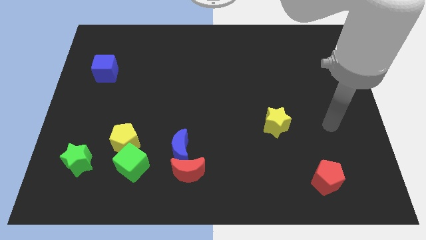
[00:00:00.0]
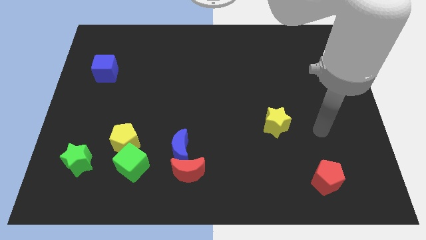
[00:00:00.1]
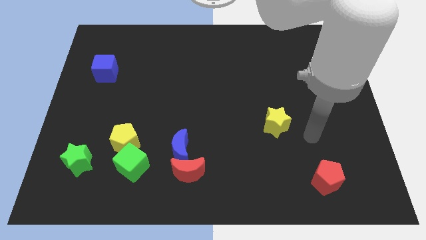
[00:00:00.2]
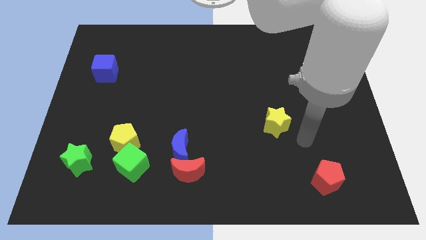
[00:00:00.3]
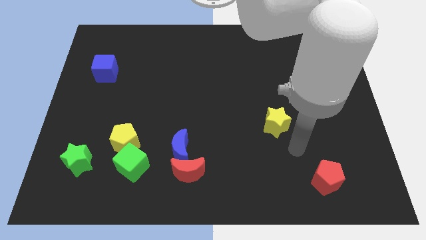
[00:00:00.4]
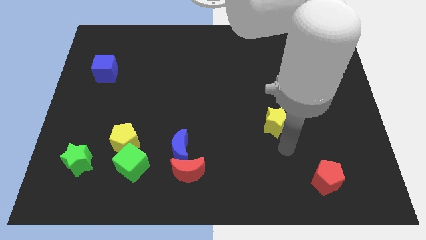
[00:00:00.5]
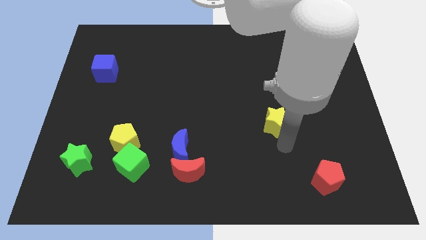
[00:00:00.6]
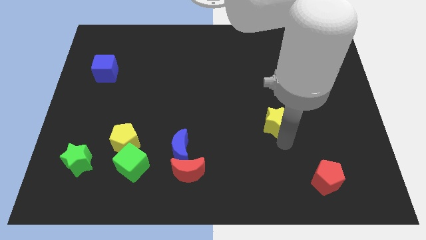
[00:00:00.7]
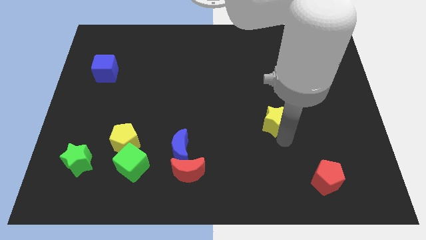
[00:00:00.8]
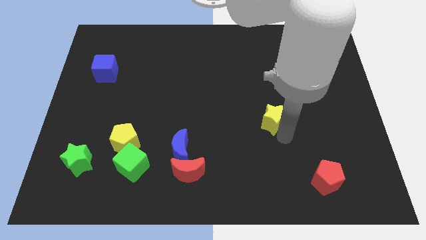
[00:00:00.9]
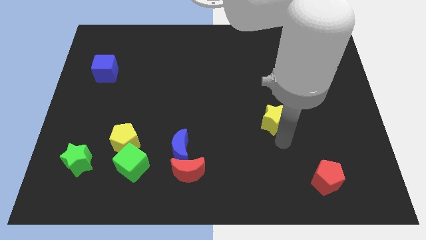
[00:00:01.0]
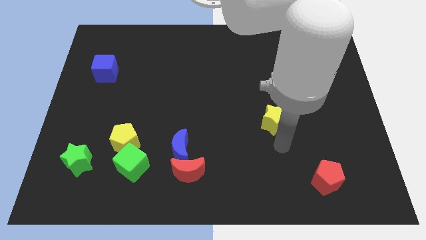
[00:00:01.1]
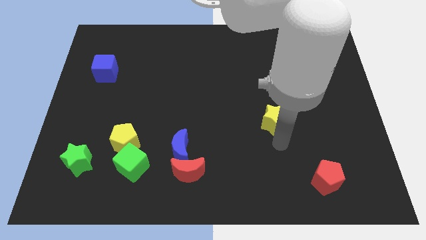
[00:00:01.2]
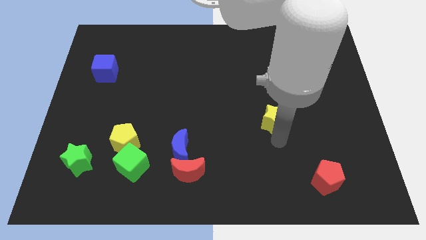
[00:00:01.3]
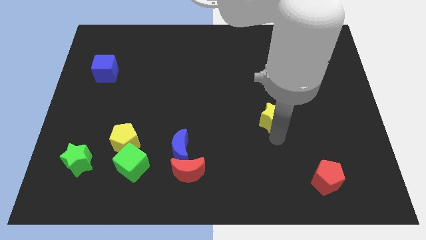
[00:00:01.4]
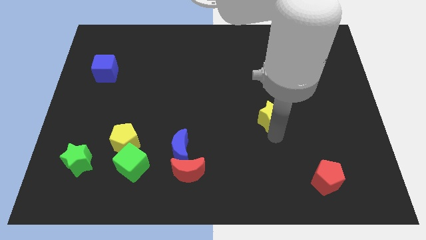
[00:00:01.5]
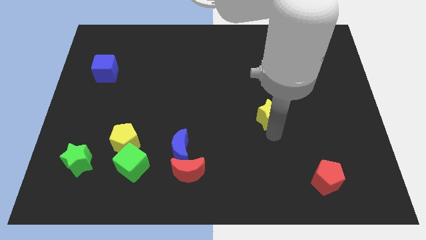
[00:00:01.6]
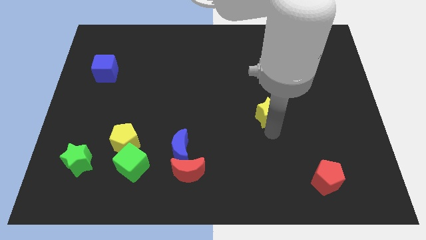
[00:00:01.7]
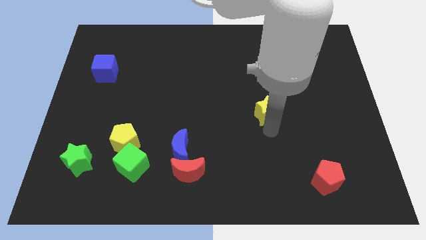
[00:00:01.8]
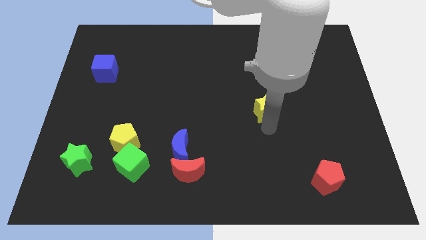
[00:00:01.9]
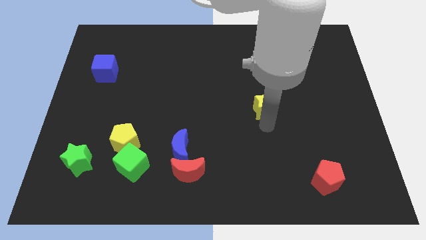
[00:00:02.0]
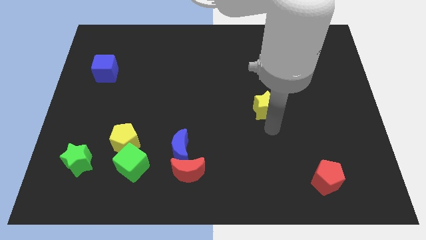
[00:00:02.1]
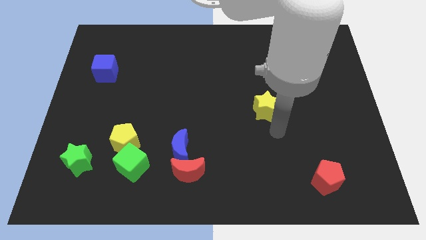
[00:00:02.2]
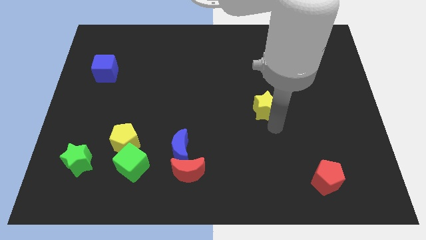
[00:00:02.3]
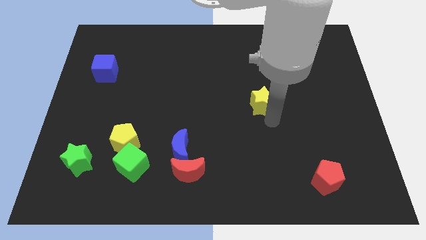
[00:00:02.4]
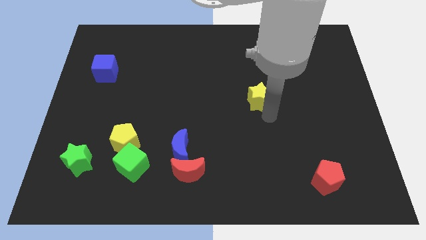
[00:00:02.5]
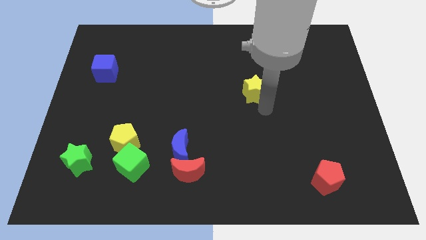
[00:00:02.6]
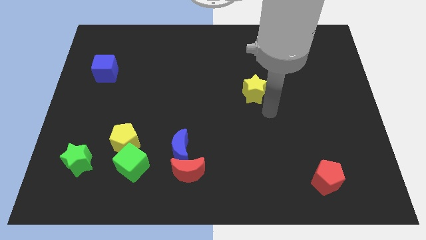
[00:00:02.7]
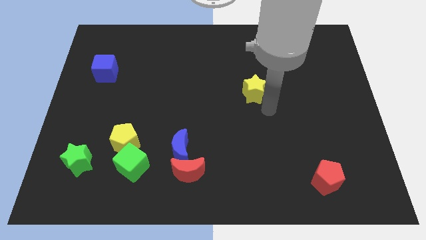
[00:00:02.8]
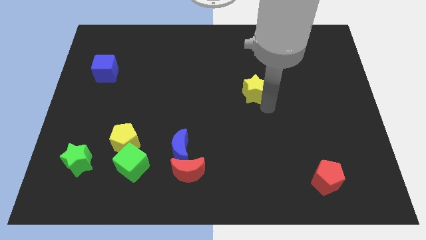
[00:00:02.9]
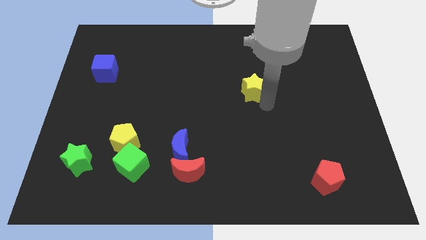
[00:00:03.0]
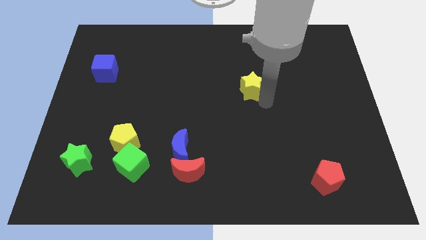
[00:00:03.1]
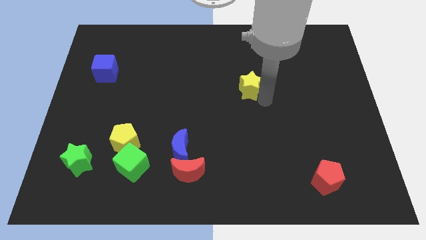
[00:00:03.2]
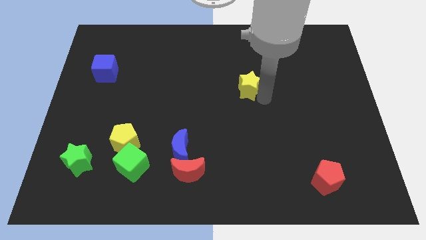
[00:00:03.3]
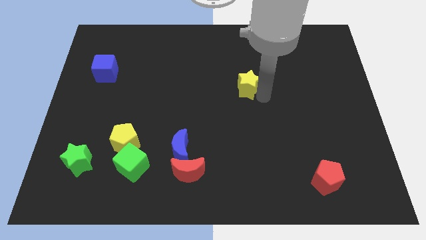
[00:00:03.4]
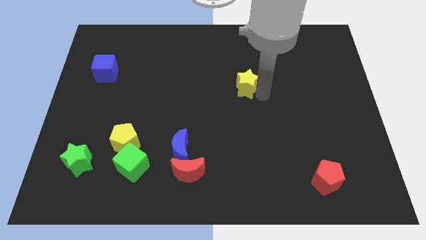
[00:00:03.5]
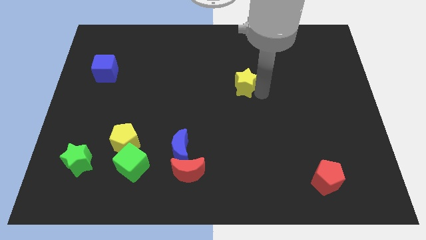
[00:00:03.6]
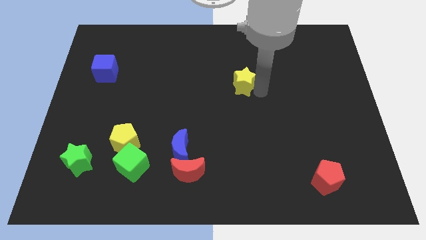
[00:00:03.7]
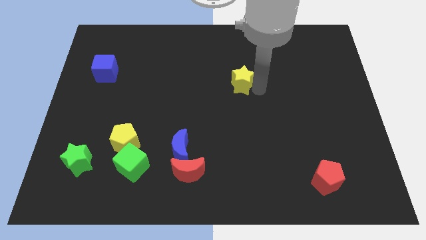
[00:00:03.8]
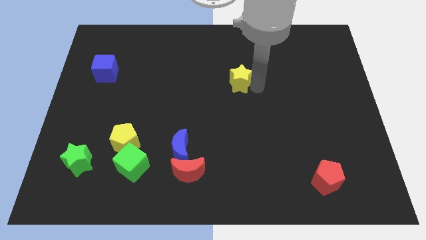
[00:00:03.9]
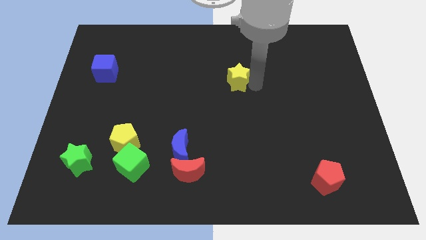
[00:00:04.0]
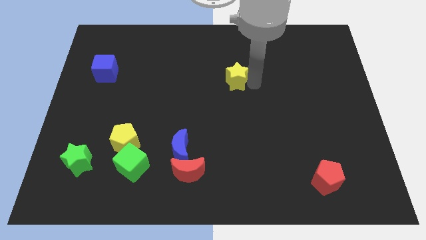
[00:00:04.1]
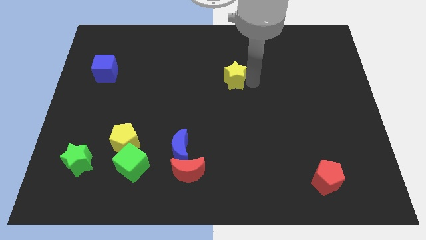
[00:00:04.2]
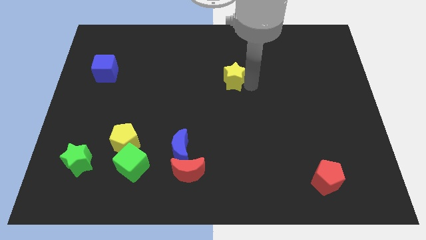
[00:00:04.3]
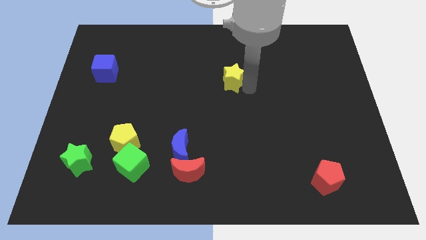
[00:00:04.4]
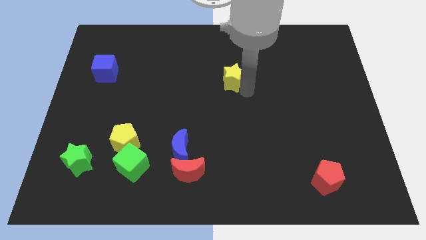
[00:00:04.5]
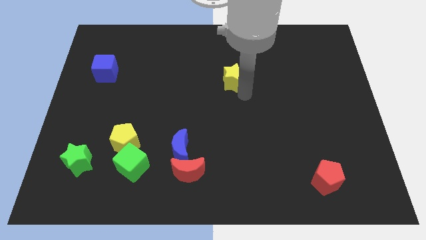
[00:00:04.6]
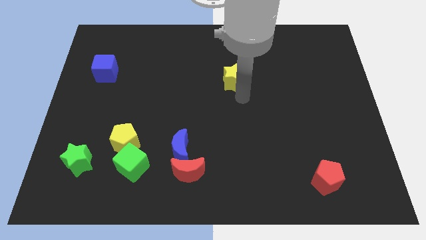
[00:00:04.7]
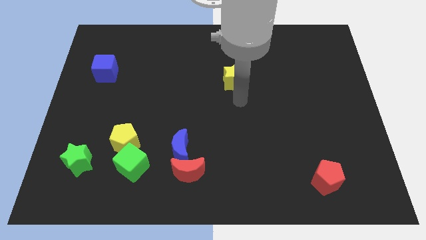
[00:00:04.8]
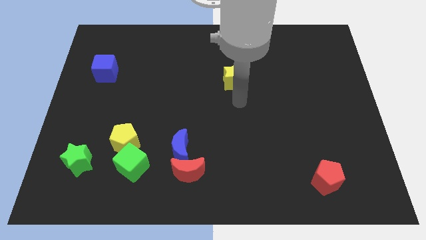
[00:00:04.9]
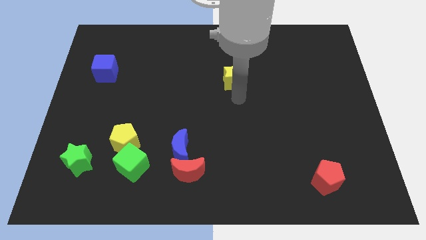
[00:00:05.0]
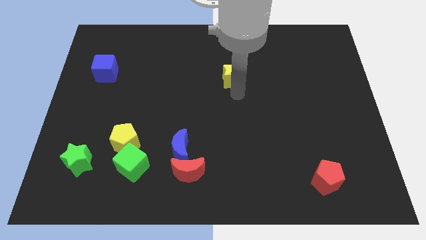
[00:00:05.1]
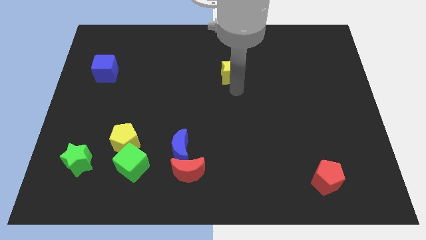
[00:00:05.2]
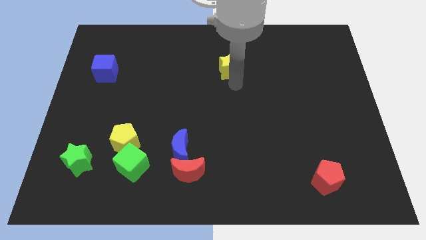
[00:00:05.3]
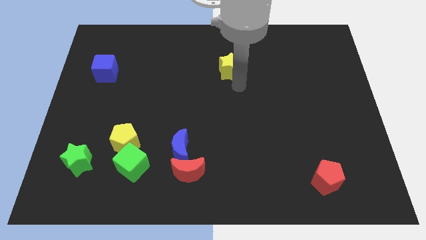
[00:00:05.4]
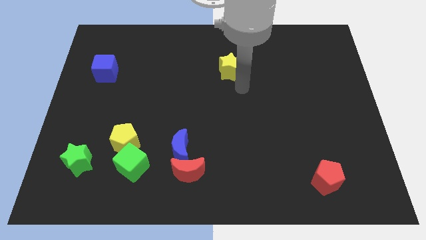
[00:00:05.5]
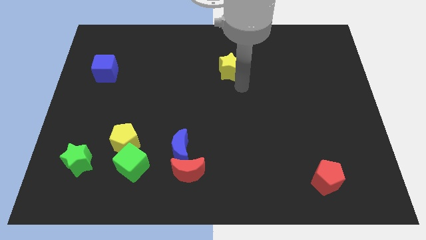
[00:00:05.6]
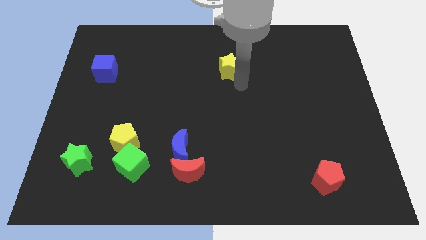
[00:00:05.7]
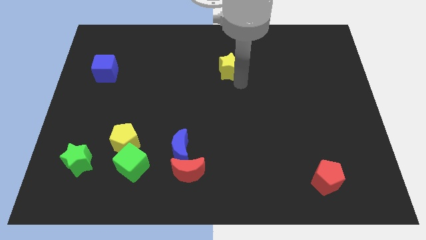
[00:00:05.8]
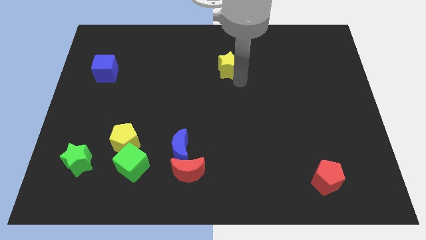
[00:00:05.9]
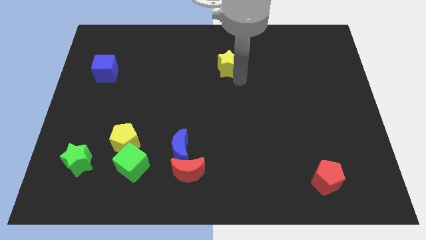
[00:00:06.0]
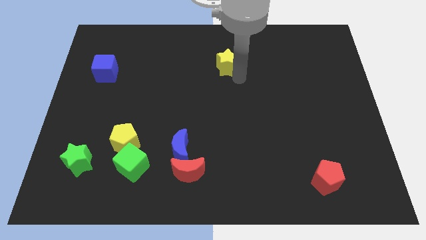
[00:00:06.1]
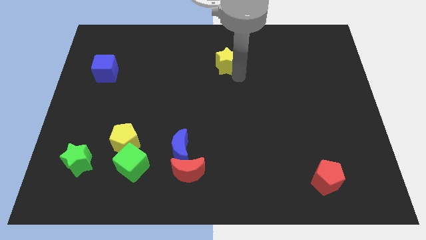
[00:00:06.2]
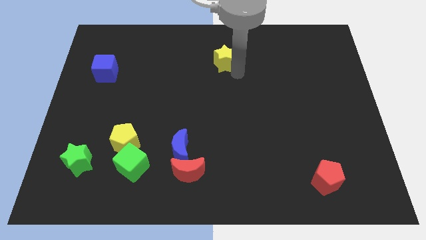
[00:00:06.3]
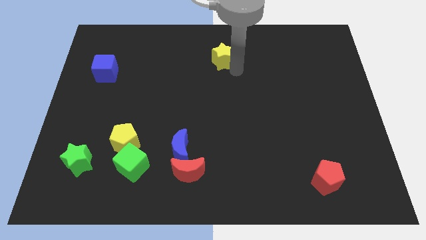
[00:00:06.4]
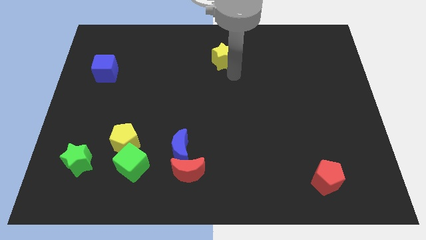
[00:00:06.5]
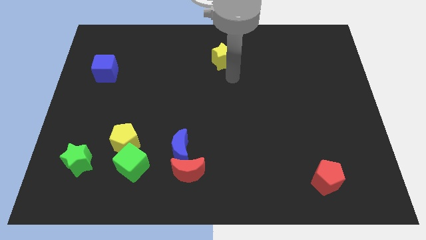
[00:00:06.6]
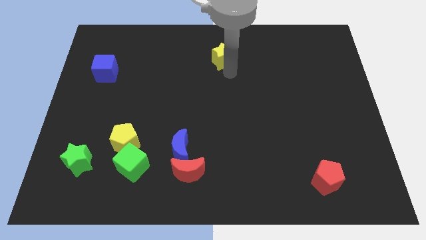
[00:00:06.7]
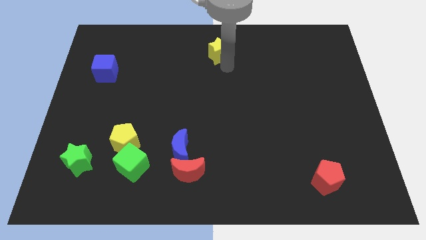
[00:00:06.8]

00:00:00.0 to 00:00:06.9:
put the yellow star to the top
